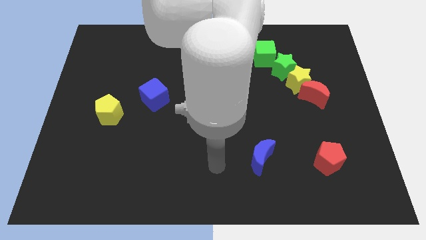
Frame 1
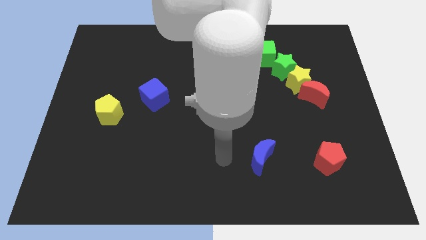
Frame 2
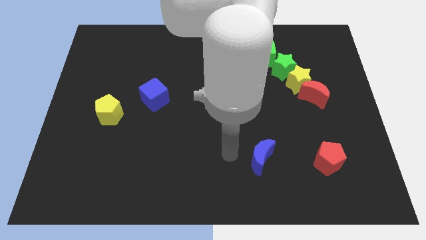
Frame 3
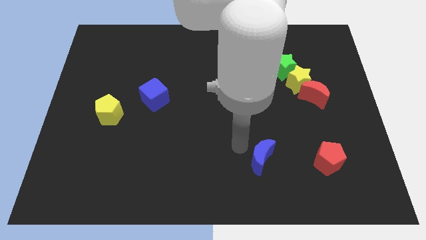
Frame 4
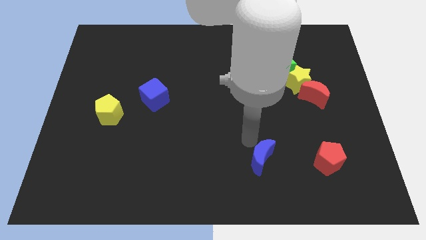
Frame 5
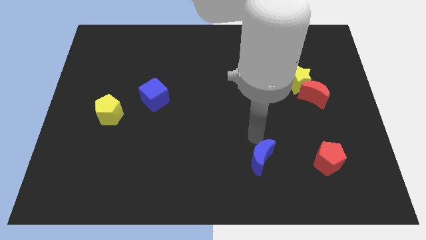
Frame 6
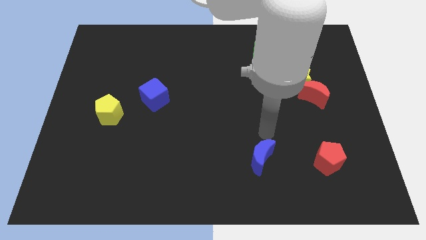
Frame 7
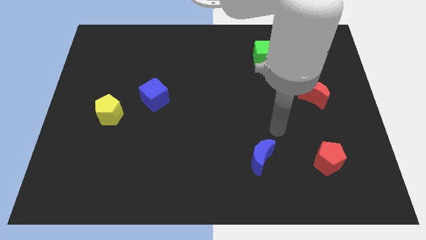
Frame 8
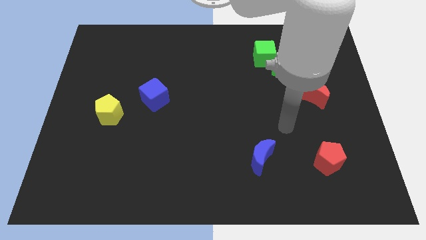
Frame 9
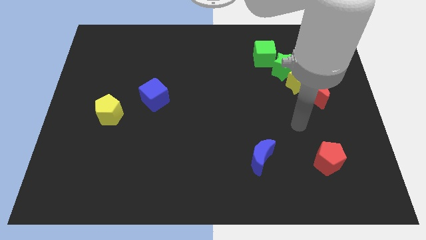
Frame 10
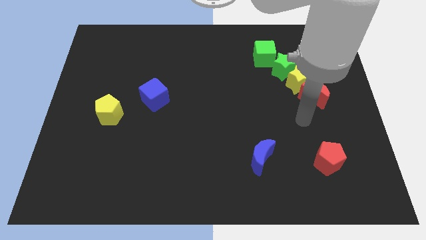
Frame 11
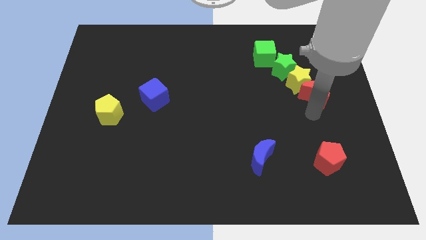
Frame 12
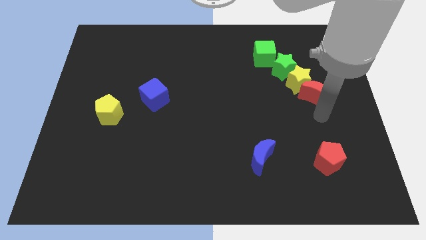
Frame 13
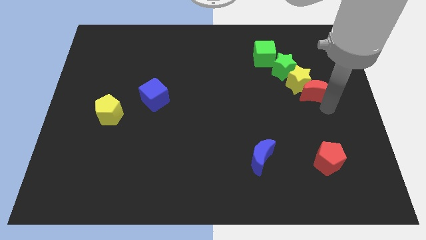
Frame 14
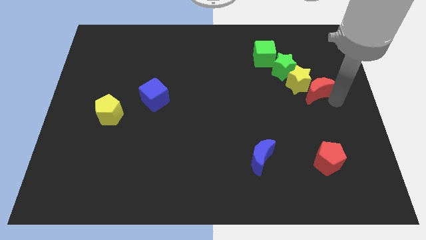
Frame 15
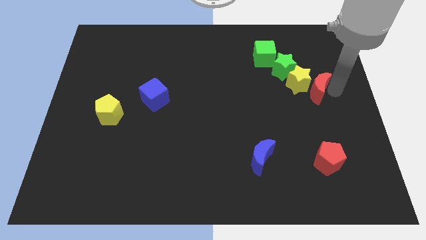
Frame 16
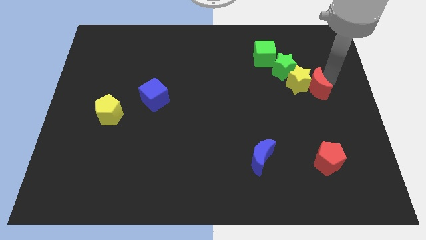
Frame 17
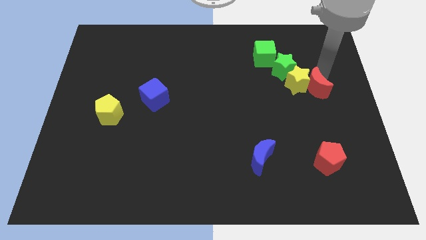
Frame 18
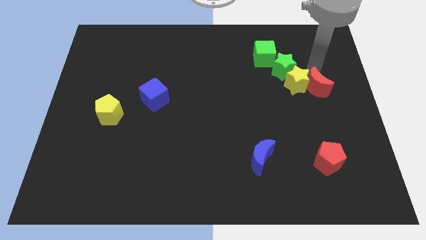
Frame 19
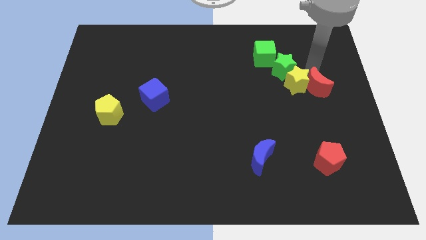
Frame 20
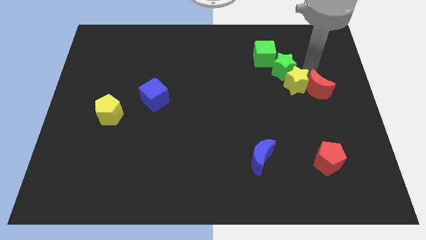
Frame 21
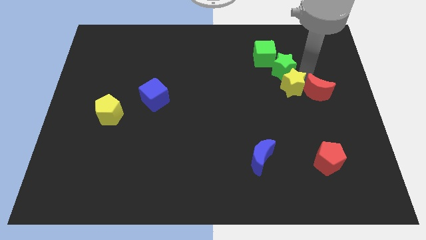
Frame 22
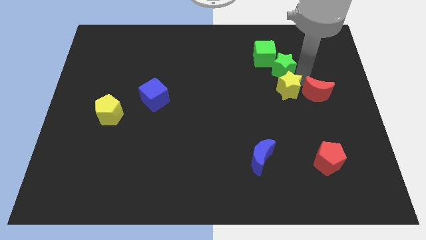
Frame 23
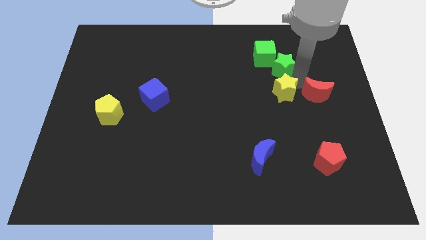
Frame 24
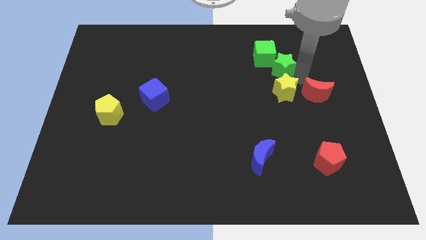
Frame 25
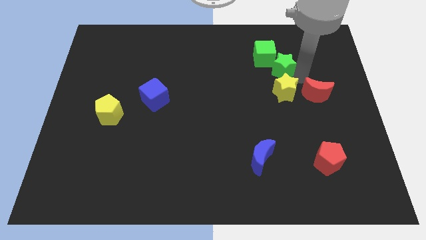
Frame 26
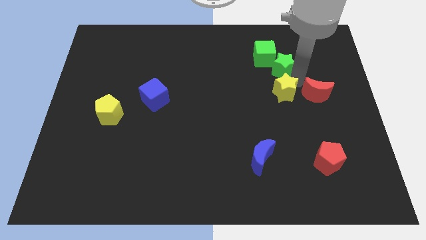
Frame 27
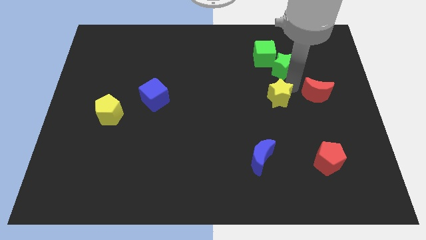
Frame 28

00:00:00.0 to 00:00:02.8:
push the yellow star downwards and then to the left a bit

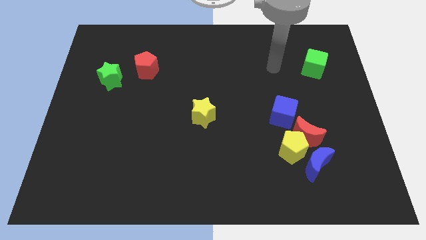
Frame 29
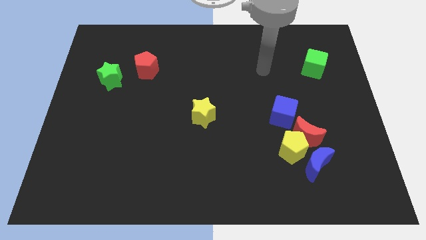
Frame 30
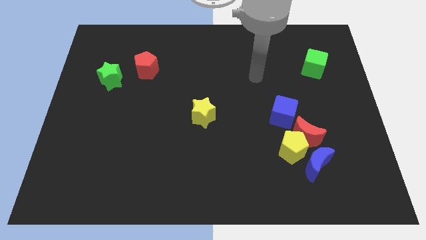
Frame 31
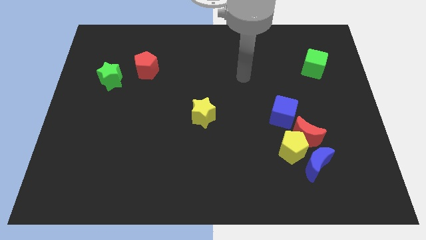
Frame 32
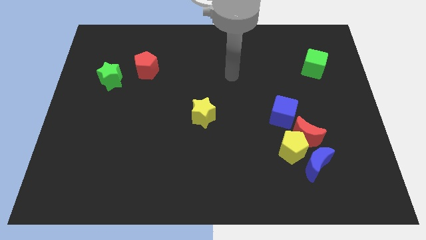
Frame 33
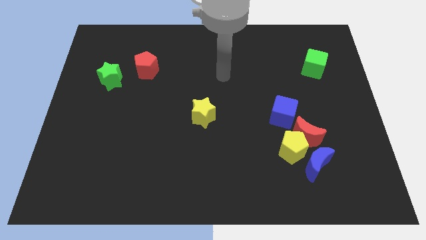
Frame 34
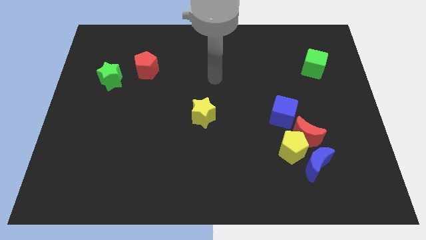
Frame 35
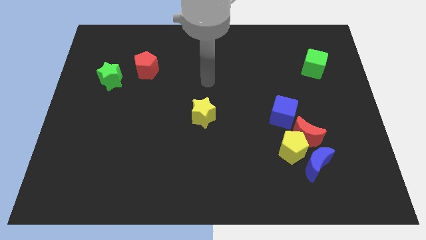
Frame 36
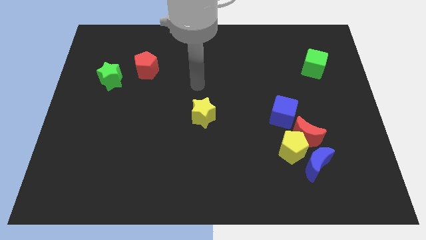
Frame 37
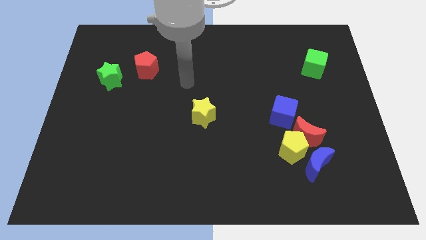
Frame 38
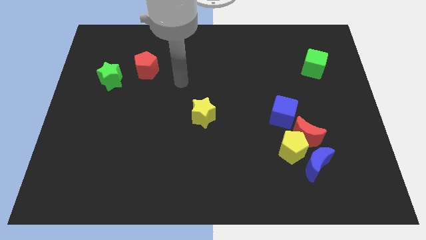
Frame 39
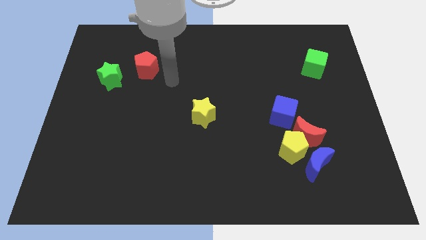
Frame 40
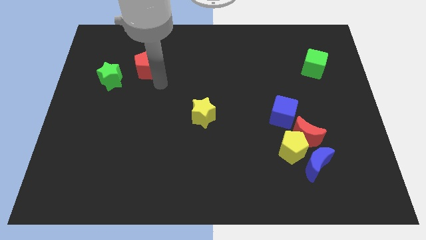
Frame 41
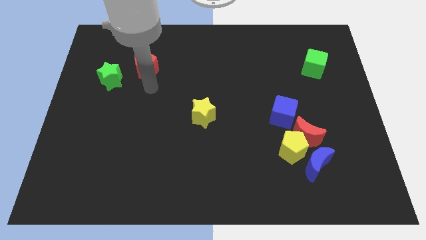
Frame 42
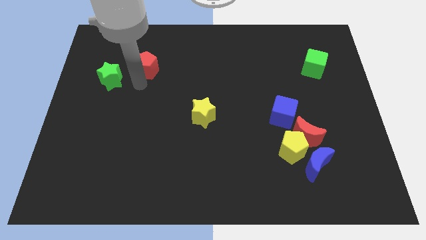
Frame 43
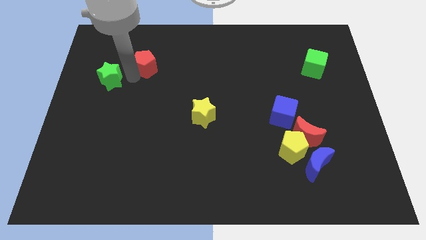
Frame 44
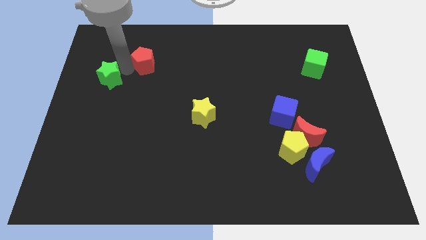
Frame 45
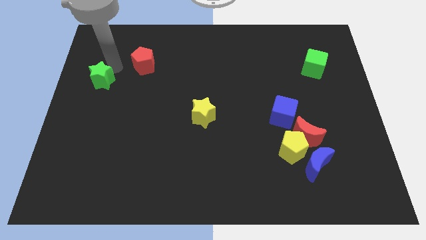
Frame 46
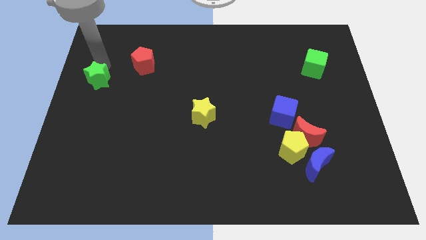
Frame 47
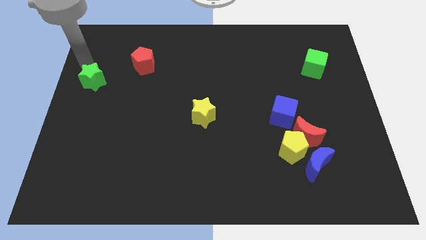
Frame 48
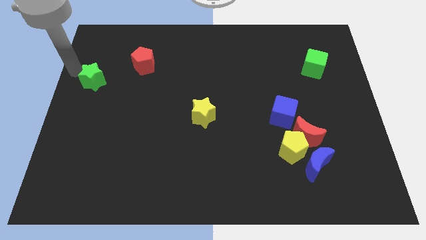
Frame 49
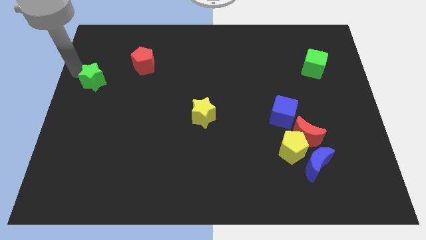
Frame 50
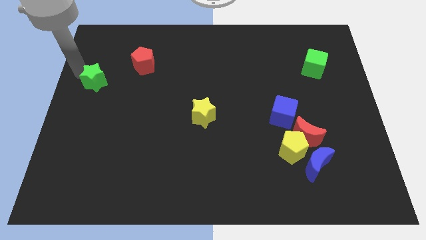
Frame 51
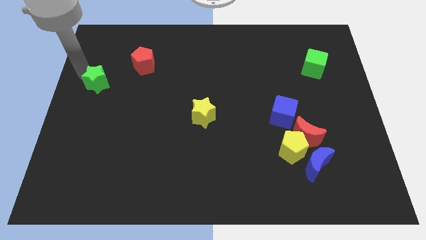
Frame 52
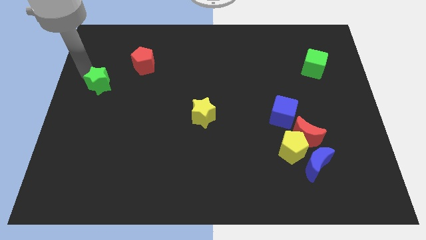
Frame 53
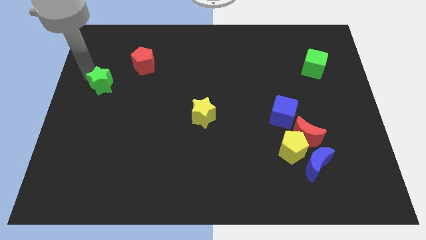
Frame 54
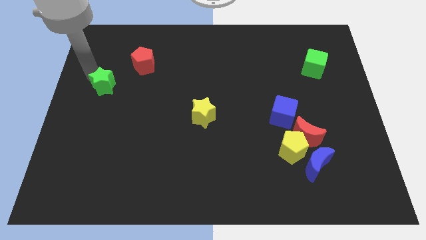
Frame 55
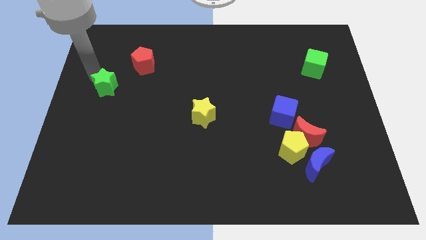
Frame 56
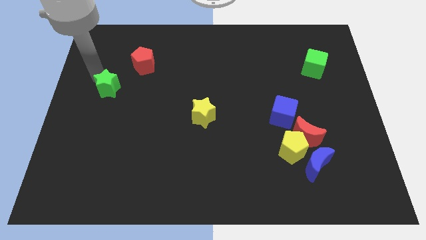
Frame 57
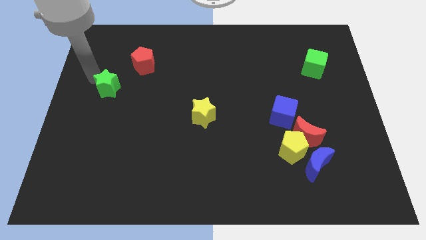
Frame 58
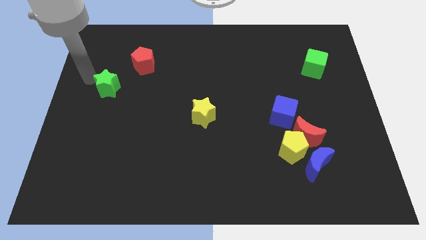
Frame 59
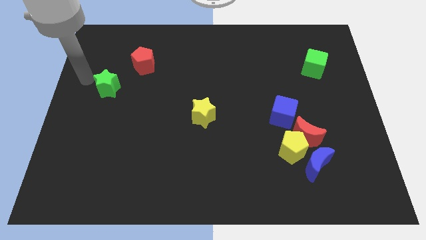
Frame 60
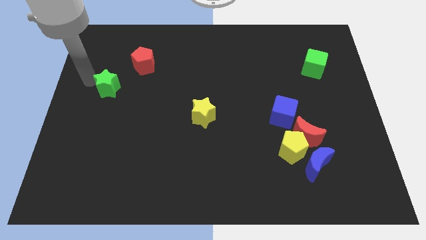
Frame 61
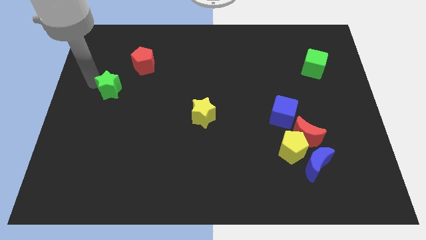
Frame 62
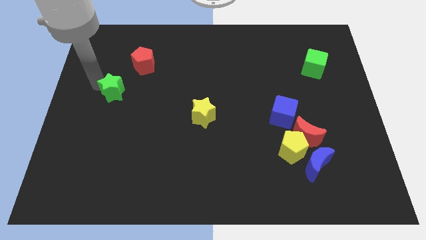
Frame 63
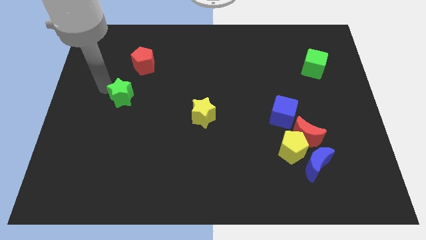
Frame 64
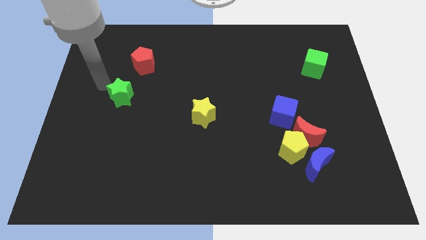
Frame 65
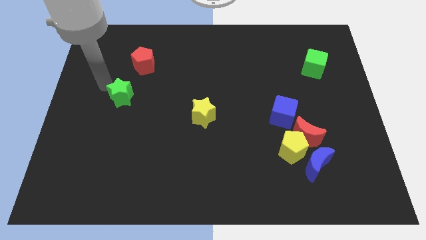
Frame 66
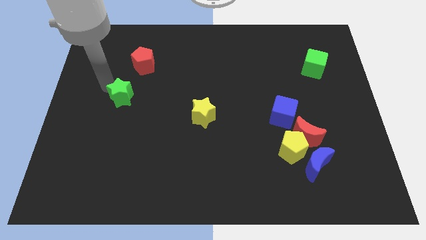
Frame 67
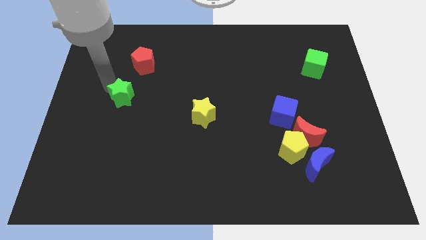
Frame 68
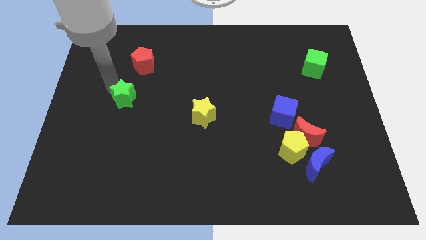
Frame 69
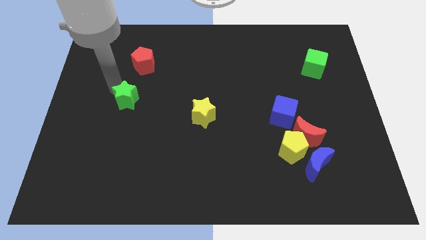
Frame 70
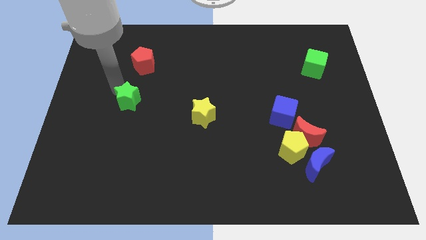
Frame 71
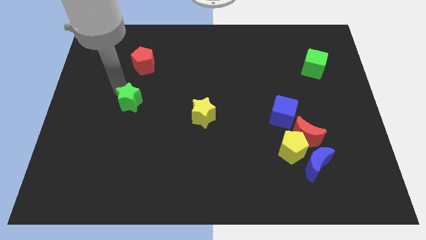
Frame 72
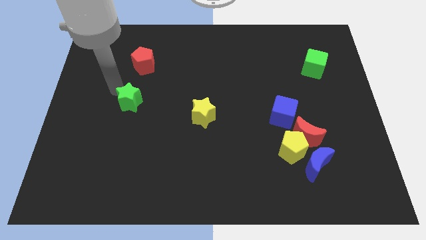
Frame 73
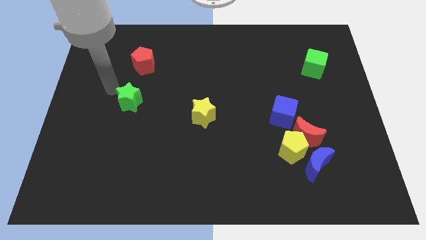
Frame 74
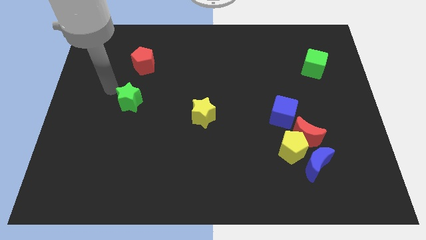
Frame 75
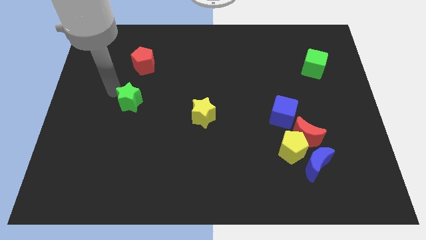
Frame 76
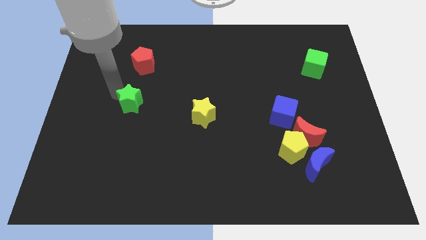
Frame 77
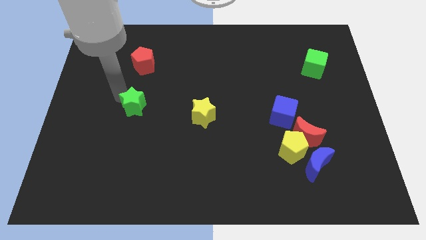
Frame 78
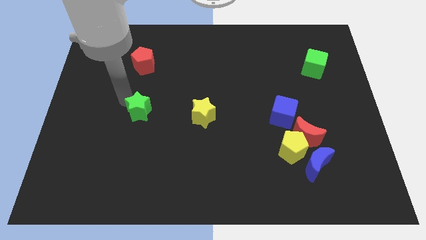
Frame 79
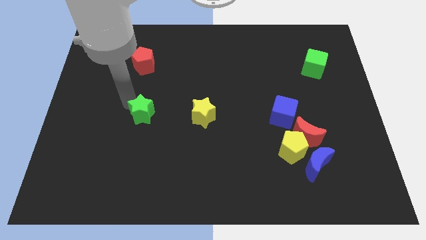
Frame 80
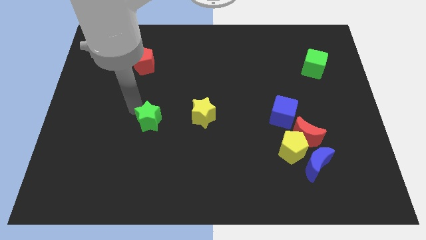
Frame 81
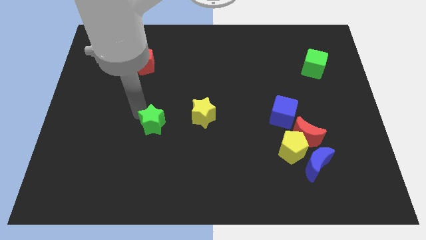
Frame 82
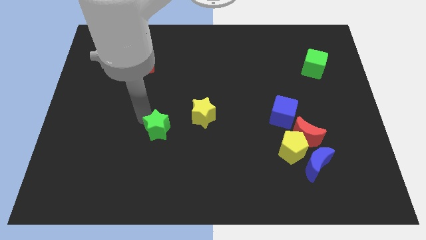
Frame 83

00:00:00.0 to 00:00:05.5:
slide the green star down and then right
